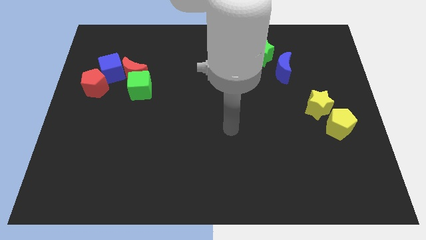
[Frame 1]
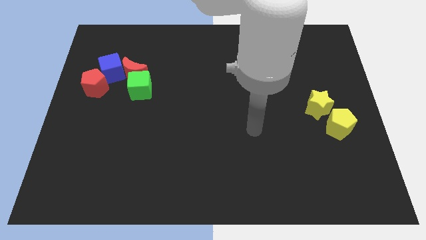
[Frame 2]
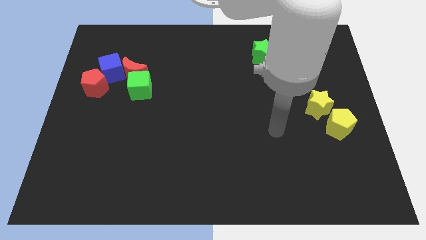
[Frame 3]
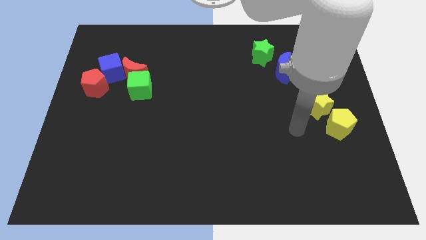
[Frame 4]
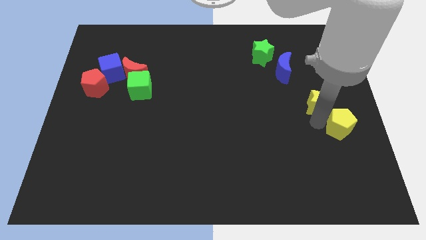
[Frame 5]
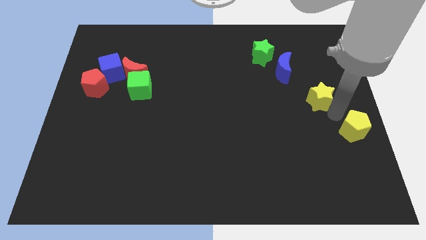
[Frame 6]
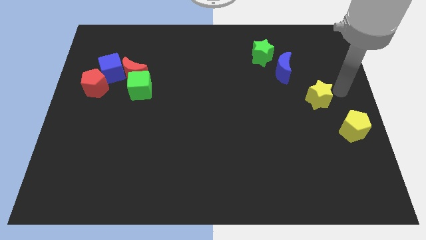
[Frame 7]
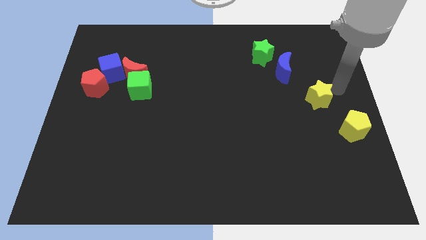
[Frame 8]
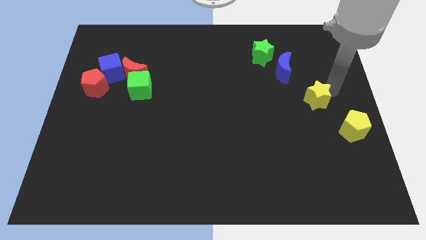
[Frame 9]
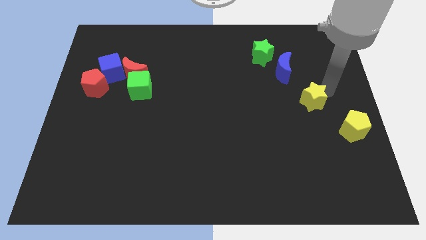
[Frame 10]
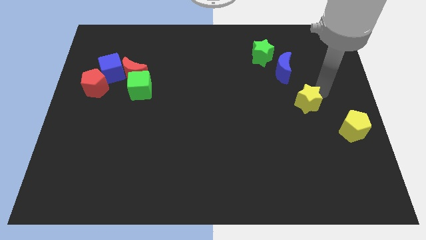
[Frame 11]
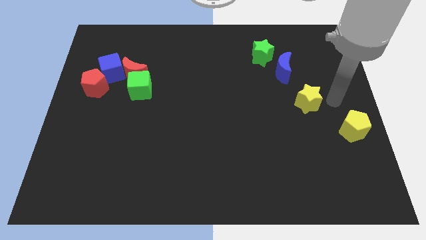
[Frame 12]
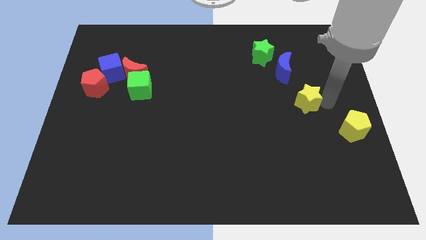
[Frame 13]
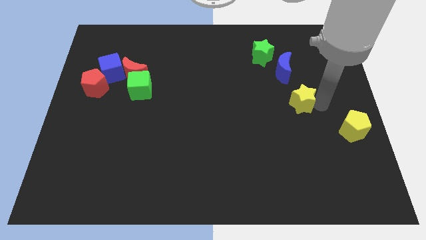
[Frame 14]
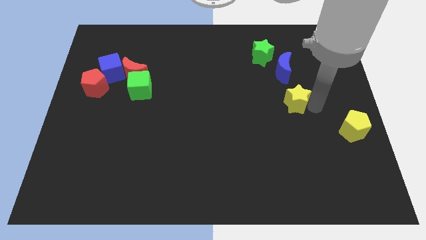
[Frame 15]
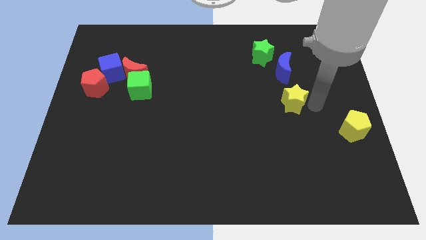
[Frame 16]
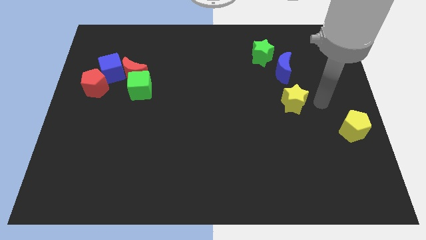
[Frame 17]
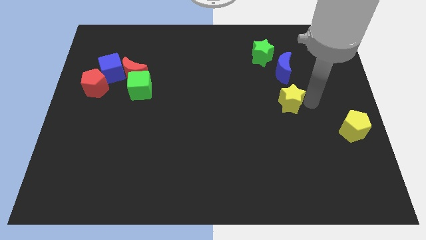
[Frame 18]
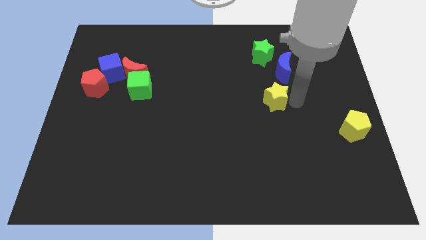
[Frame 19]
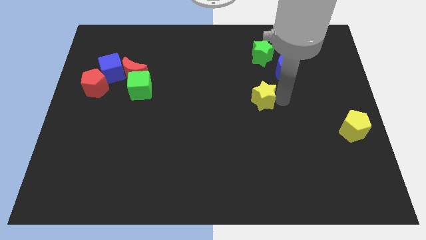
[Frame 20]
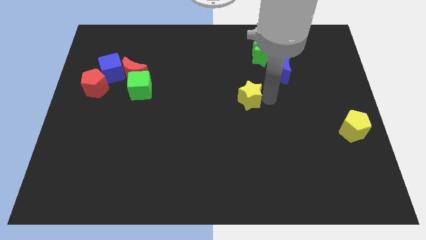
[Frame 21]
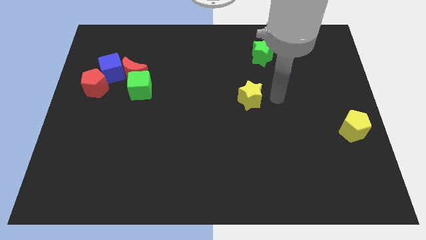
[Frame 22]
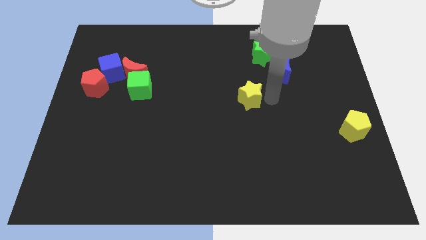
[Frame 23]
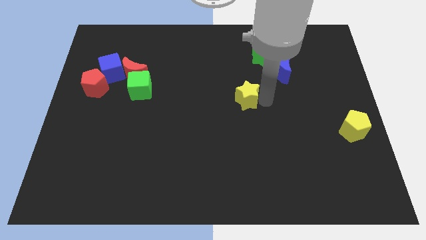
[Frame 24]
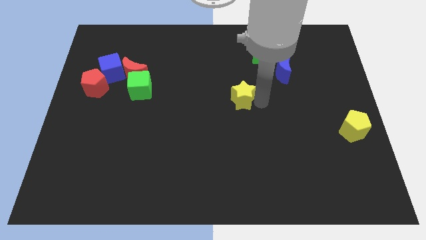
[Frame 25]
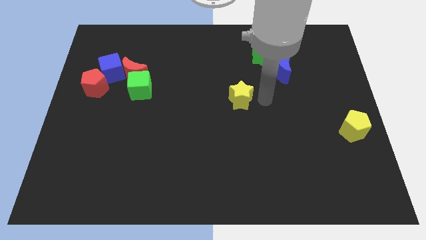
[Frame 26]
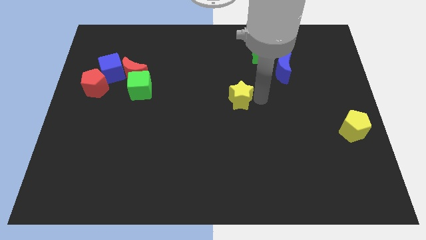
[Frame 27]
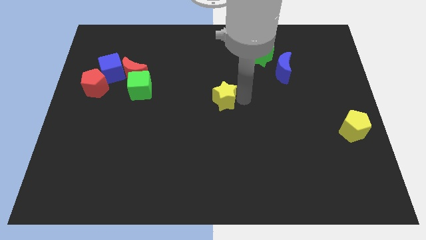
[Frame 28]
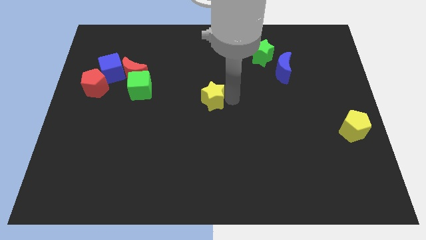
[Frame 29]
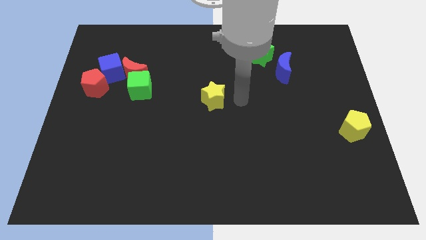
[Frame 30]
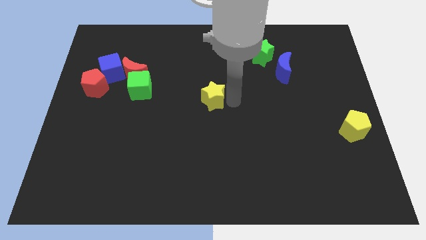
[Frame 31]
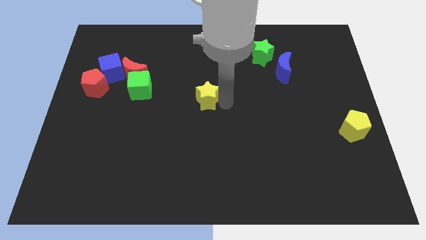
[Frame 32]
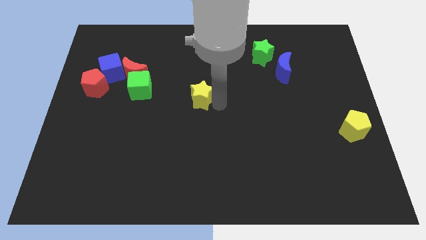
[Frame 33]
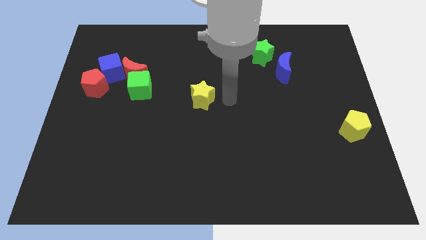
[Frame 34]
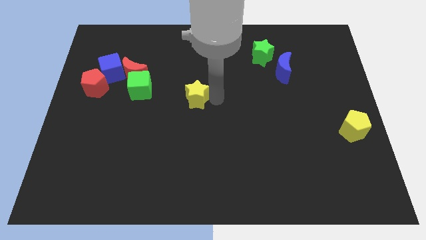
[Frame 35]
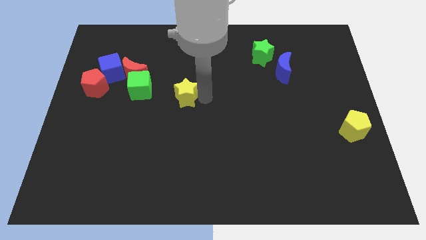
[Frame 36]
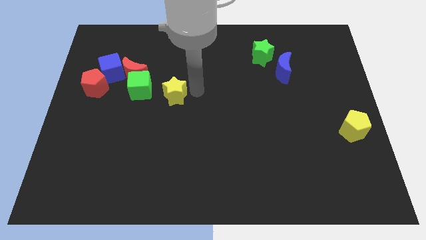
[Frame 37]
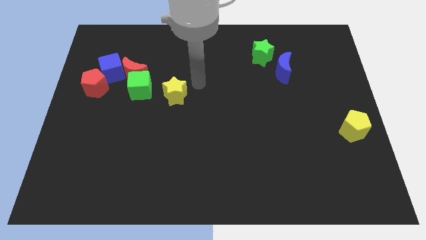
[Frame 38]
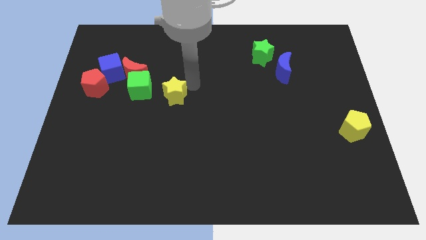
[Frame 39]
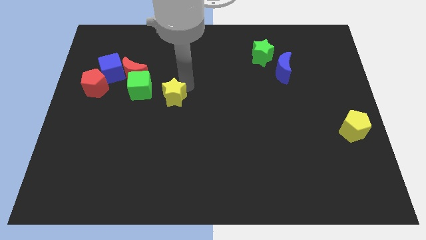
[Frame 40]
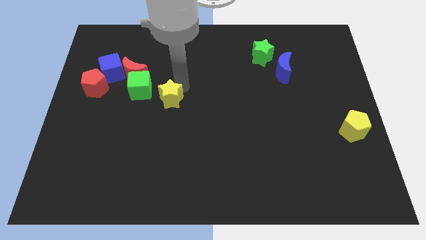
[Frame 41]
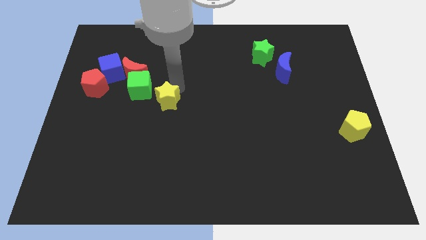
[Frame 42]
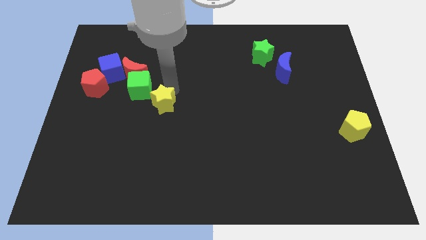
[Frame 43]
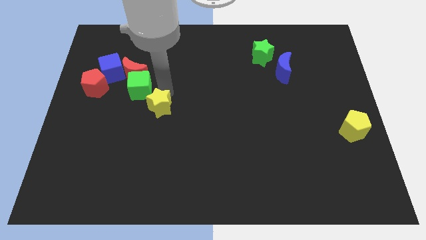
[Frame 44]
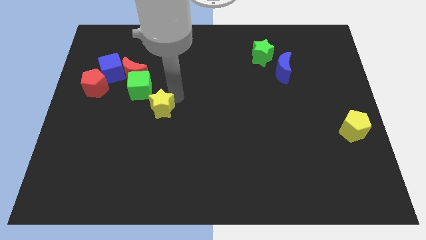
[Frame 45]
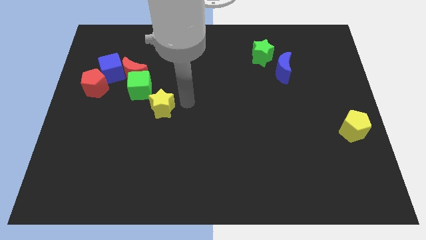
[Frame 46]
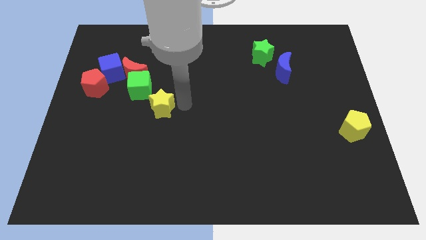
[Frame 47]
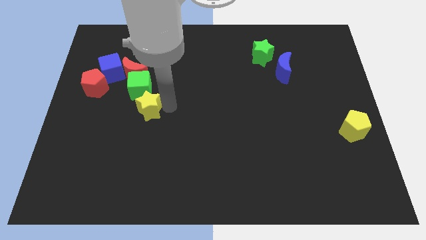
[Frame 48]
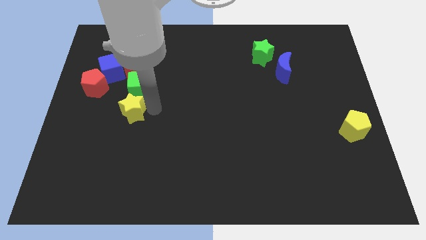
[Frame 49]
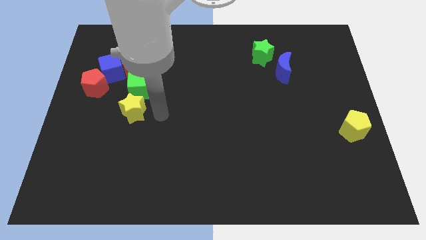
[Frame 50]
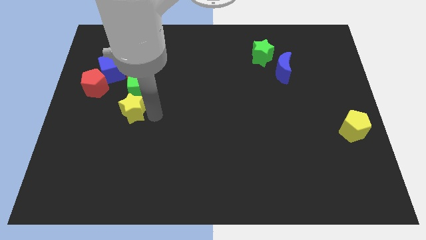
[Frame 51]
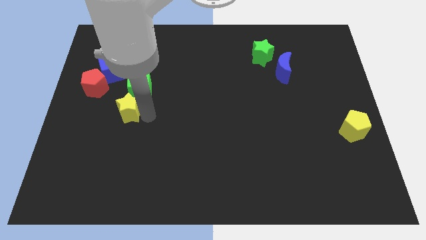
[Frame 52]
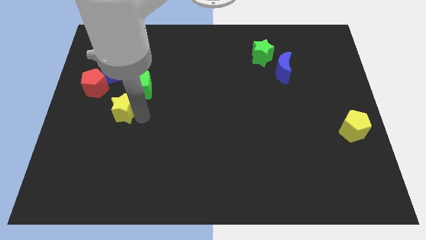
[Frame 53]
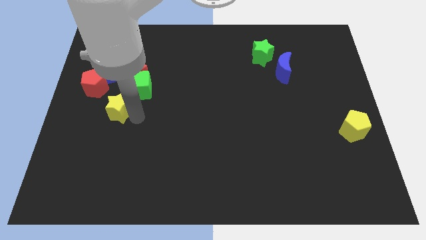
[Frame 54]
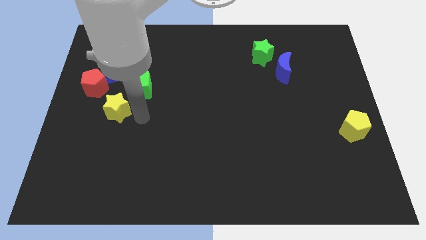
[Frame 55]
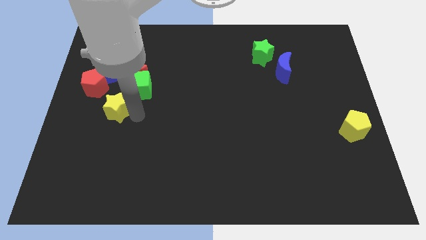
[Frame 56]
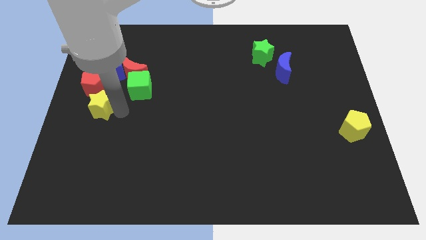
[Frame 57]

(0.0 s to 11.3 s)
move the yellow star to the center left

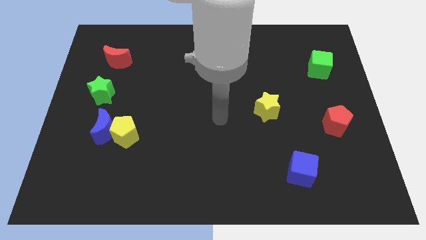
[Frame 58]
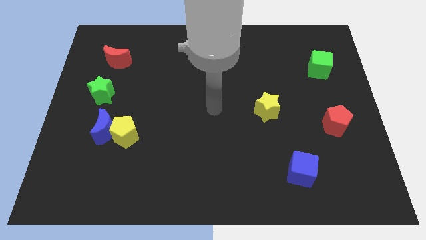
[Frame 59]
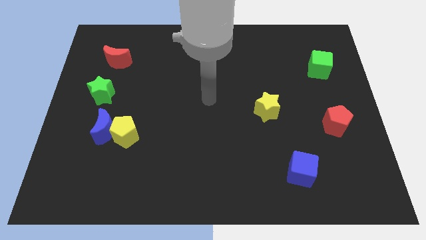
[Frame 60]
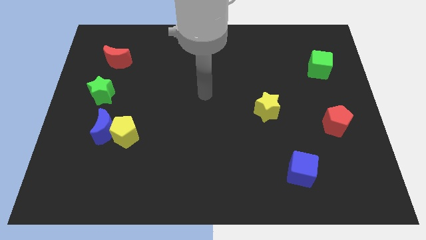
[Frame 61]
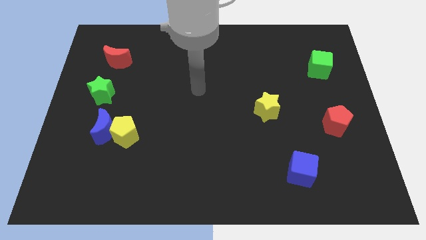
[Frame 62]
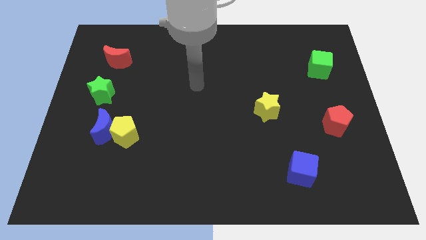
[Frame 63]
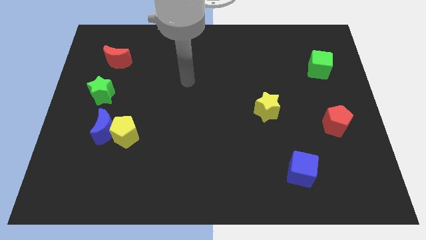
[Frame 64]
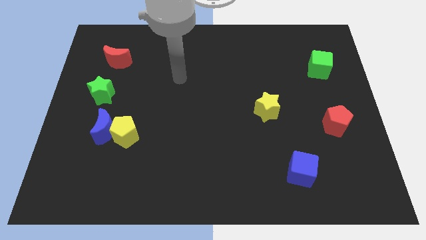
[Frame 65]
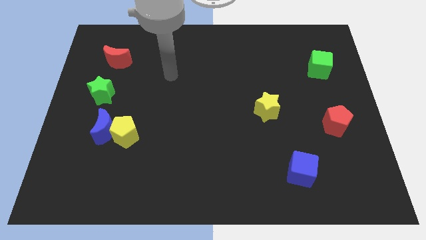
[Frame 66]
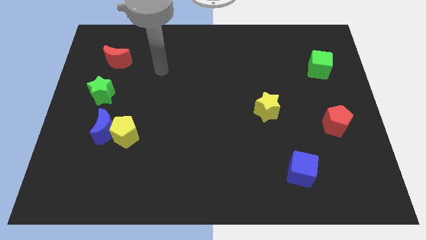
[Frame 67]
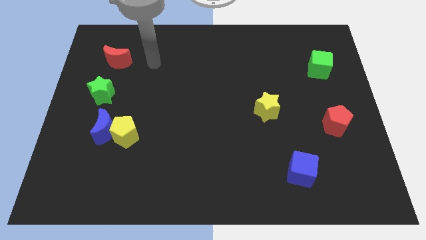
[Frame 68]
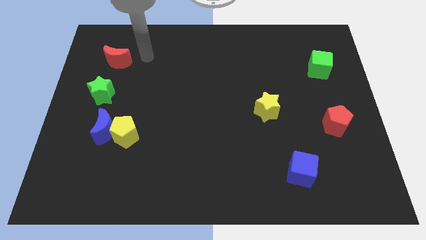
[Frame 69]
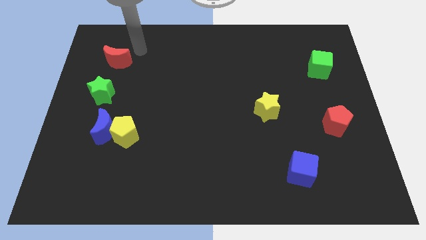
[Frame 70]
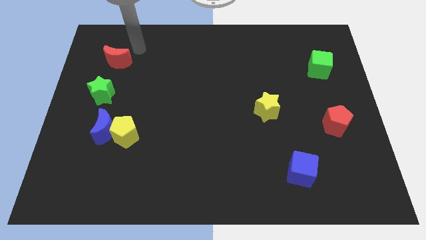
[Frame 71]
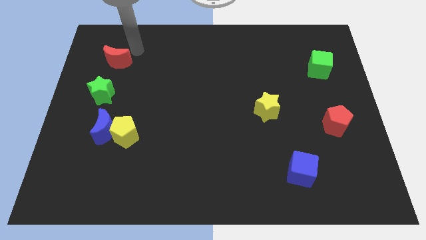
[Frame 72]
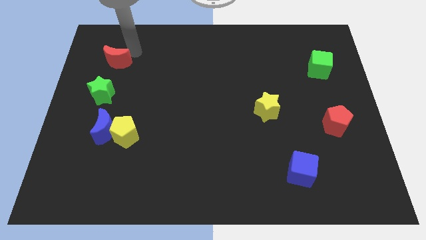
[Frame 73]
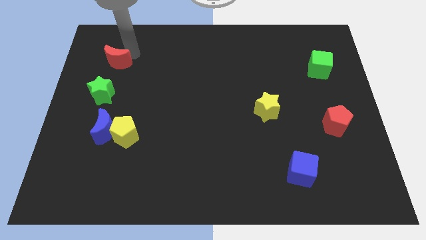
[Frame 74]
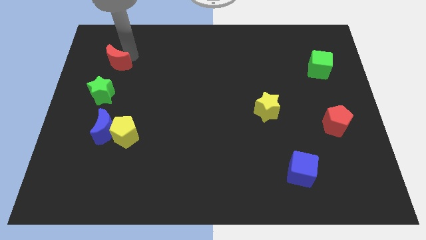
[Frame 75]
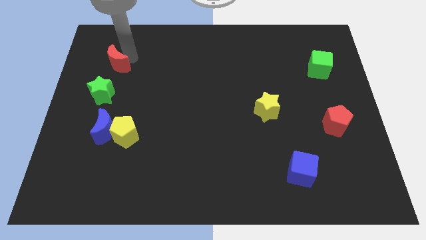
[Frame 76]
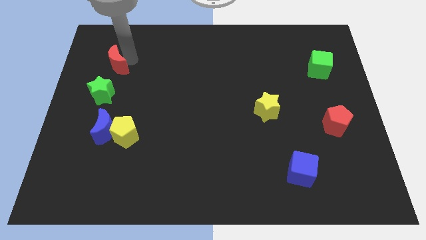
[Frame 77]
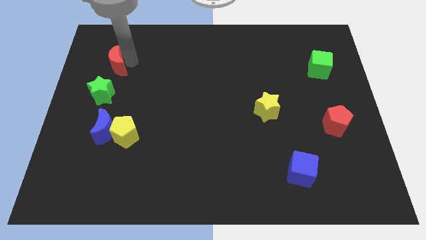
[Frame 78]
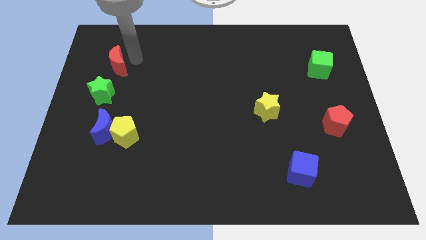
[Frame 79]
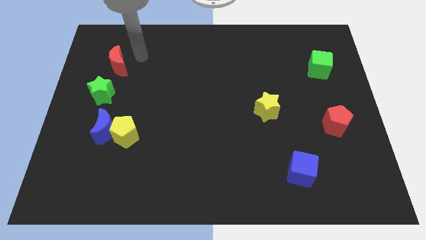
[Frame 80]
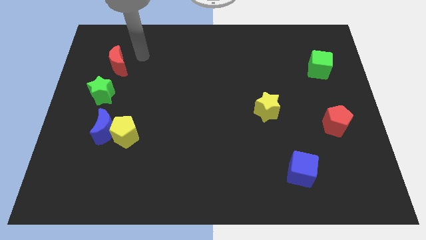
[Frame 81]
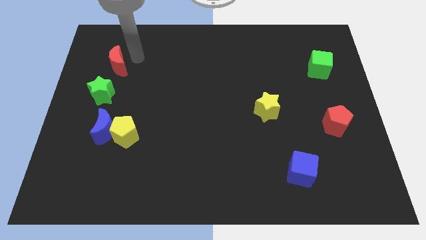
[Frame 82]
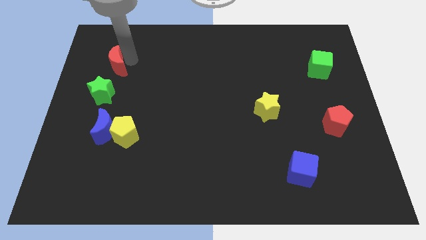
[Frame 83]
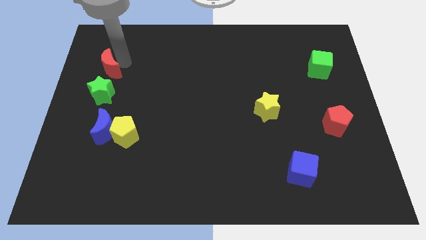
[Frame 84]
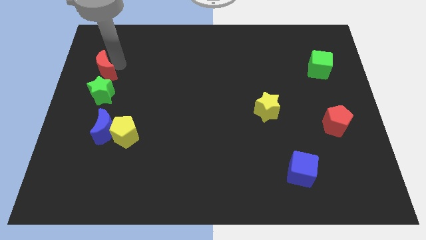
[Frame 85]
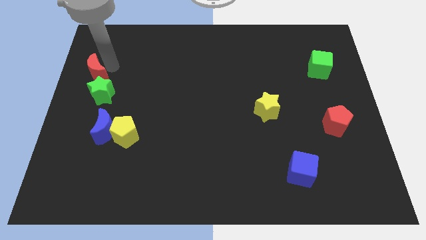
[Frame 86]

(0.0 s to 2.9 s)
move the red moon to the left side
